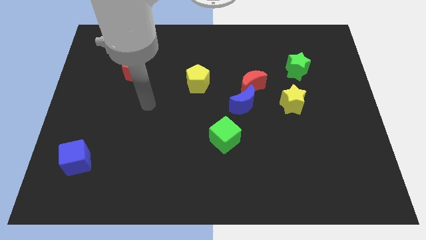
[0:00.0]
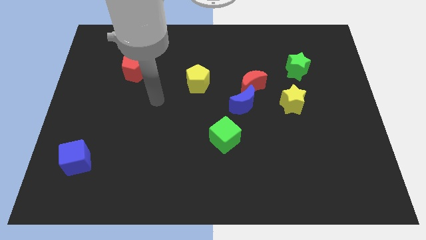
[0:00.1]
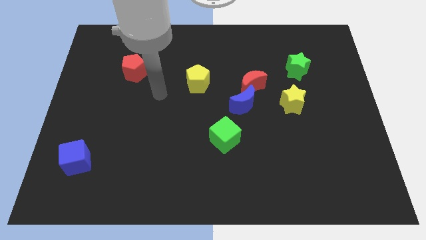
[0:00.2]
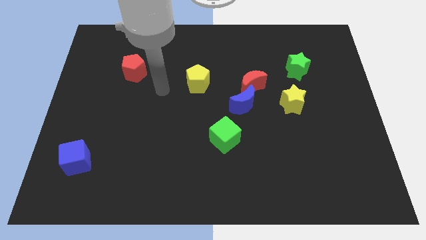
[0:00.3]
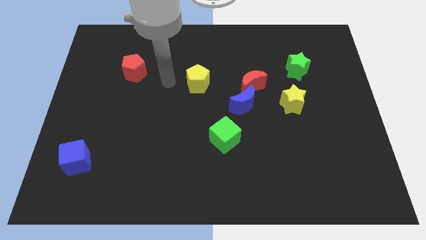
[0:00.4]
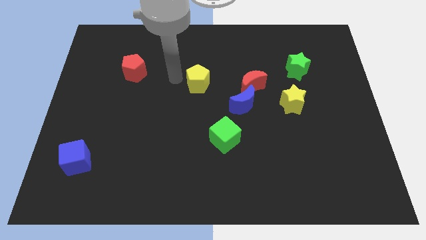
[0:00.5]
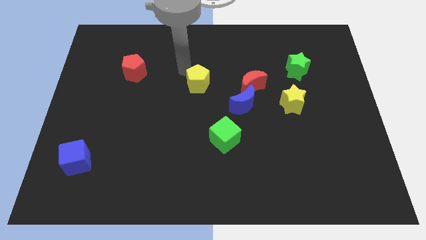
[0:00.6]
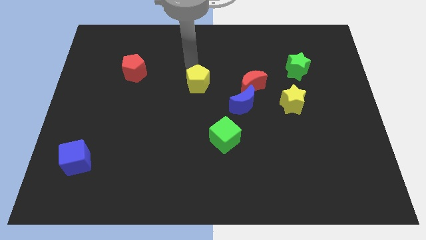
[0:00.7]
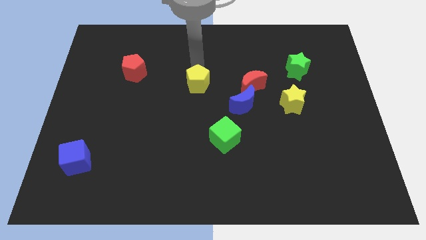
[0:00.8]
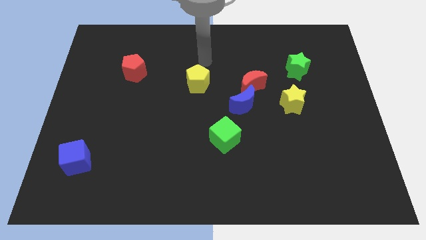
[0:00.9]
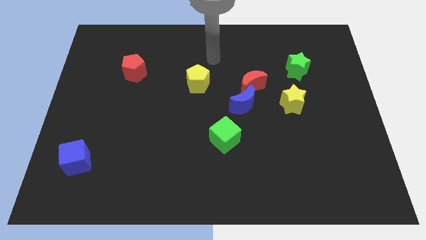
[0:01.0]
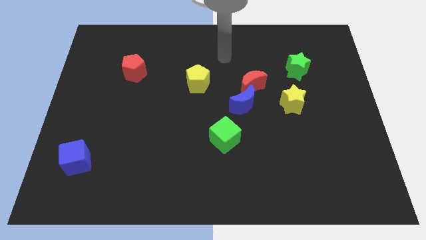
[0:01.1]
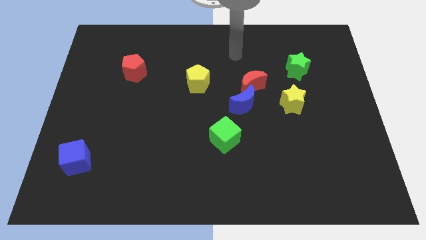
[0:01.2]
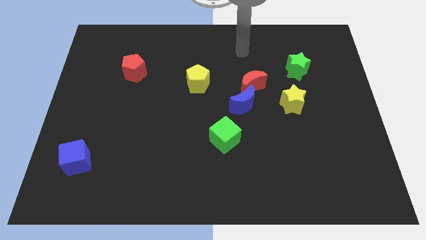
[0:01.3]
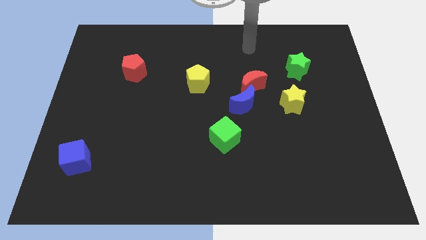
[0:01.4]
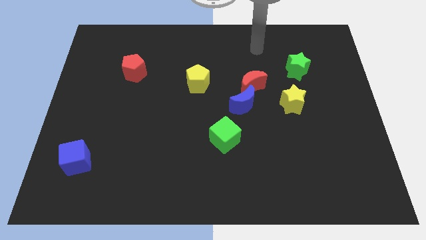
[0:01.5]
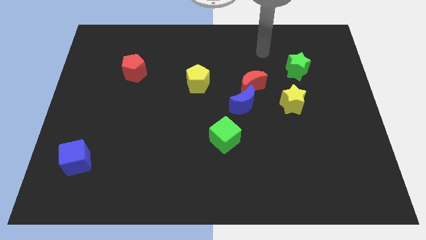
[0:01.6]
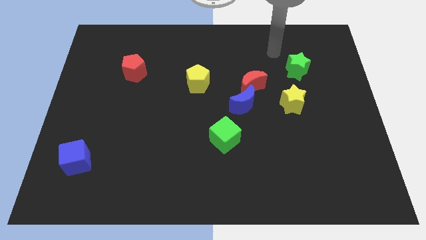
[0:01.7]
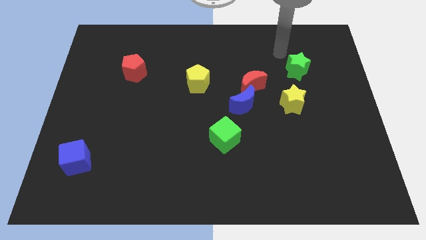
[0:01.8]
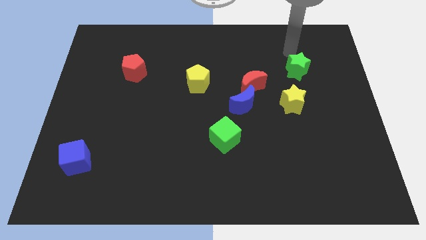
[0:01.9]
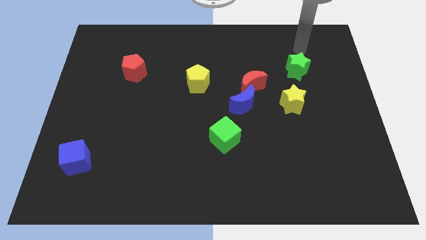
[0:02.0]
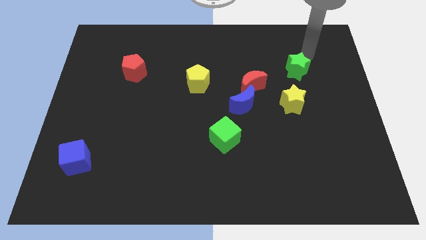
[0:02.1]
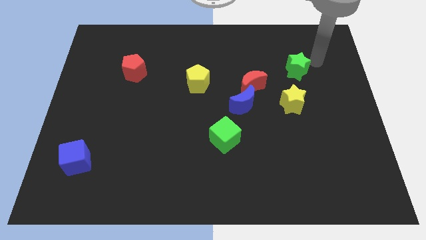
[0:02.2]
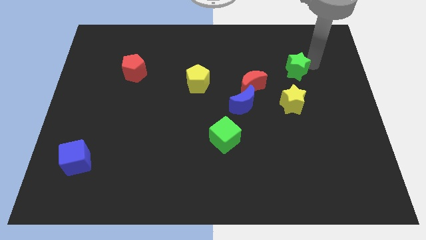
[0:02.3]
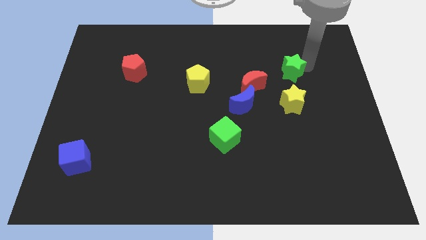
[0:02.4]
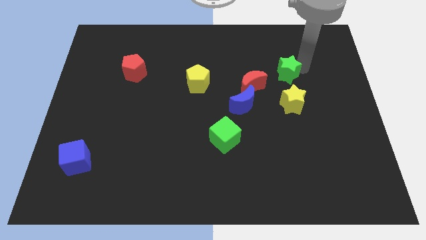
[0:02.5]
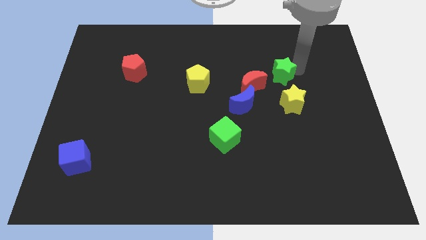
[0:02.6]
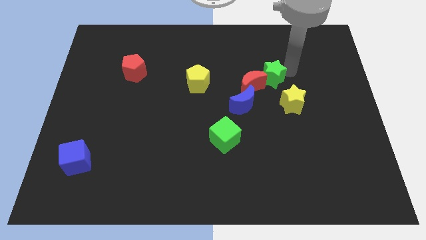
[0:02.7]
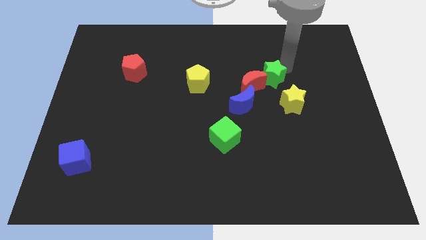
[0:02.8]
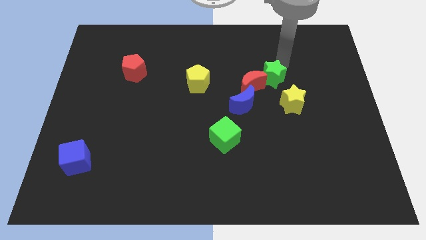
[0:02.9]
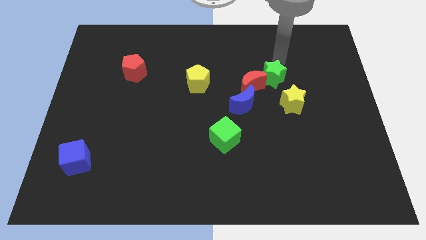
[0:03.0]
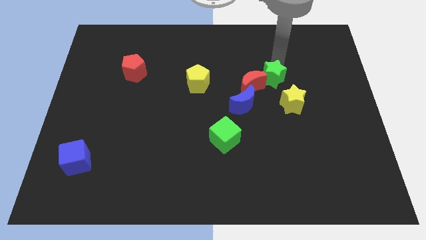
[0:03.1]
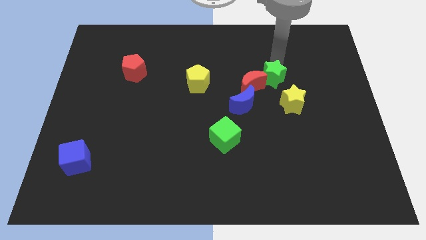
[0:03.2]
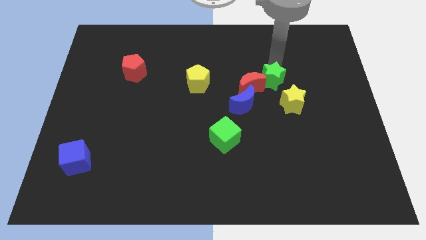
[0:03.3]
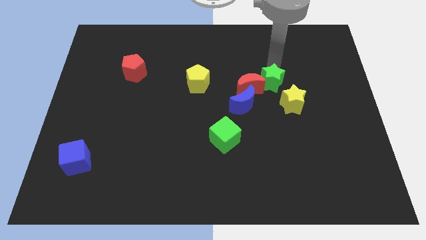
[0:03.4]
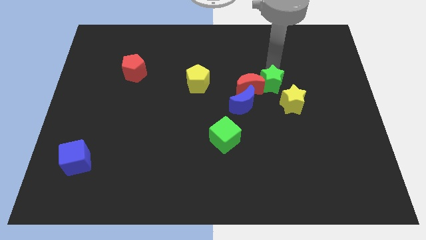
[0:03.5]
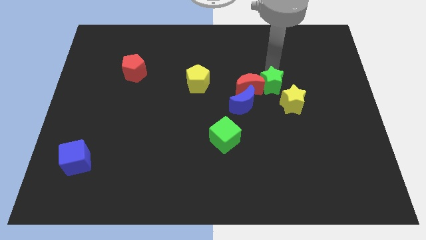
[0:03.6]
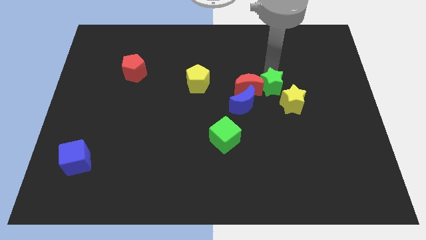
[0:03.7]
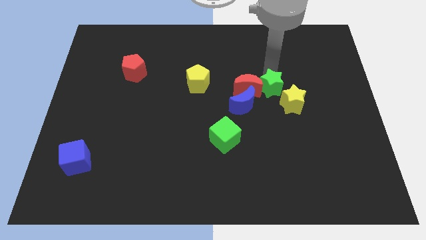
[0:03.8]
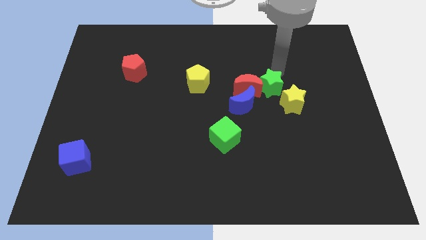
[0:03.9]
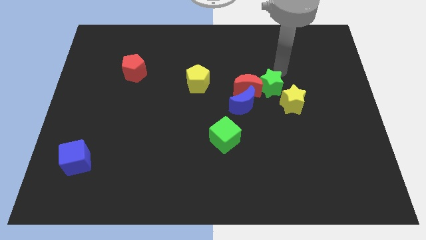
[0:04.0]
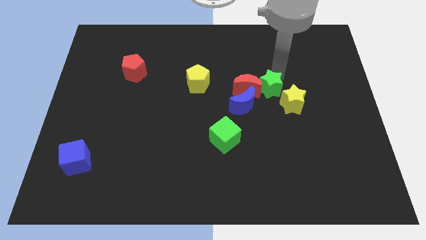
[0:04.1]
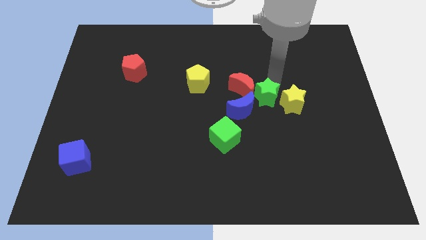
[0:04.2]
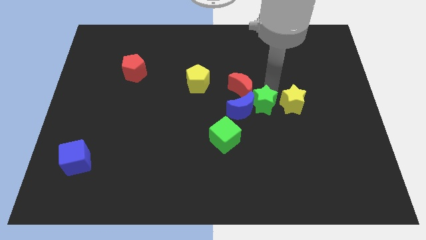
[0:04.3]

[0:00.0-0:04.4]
put the green star below the red moon

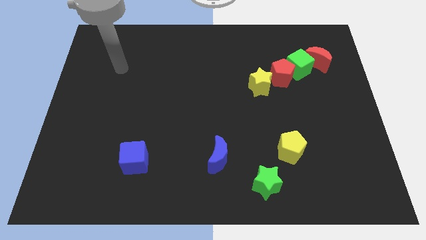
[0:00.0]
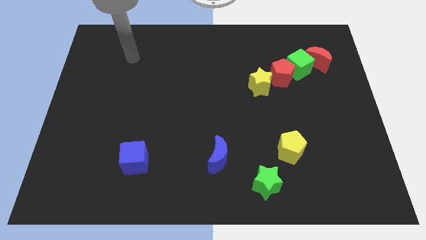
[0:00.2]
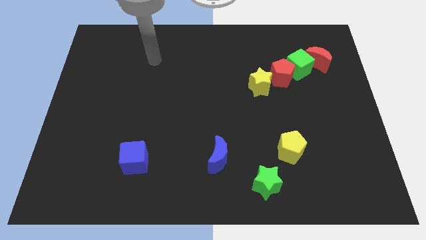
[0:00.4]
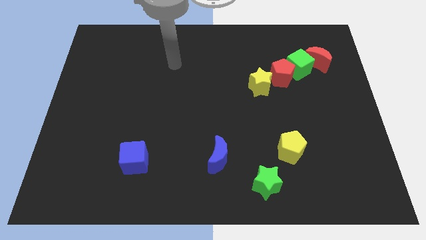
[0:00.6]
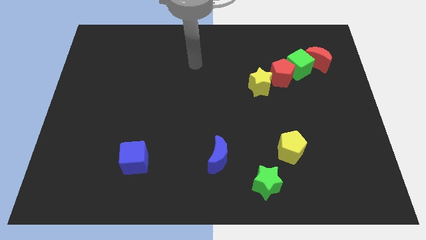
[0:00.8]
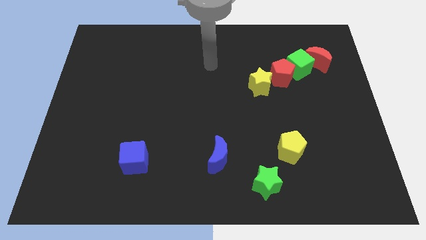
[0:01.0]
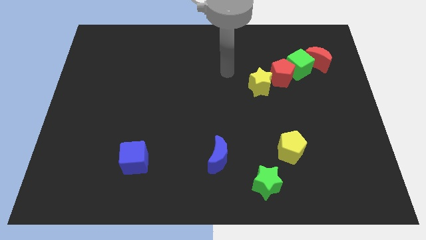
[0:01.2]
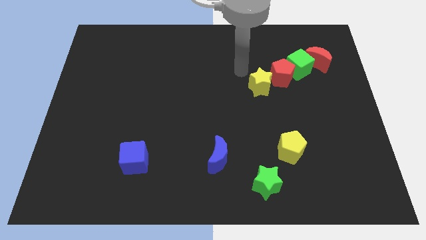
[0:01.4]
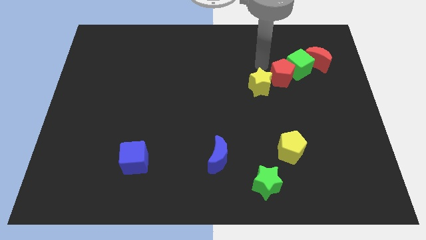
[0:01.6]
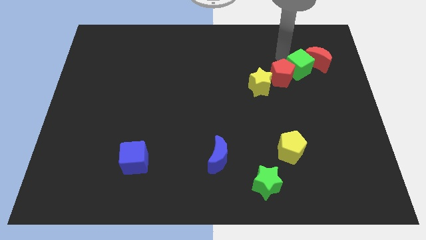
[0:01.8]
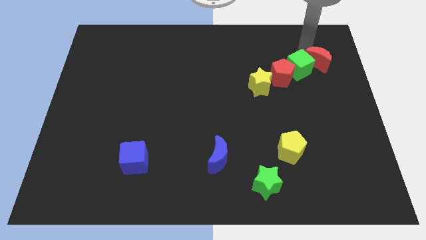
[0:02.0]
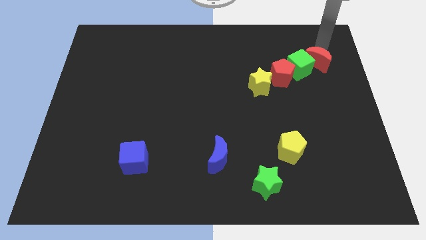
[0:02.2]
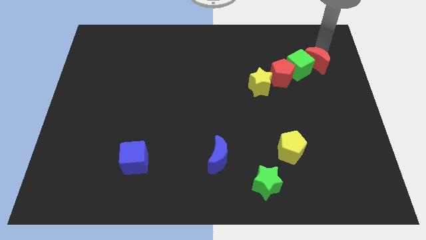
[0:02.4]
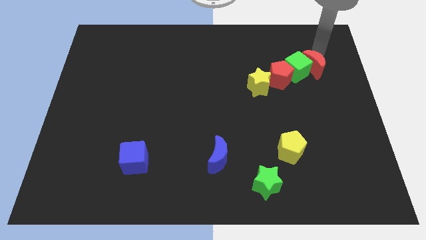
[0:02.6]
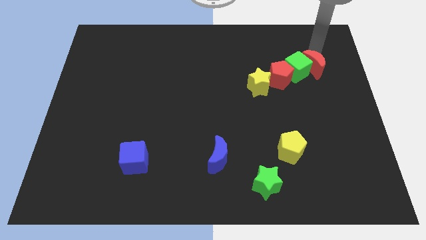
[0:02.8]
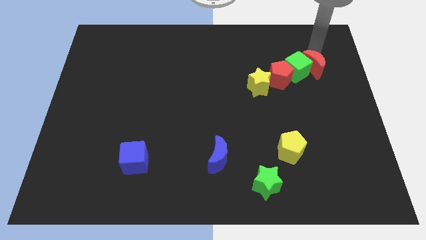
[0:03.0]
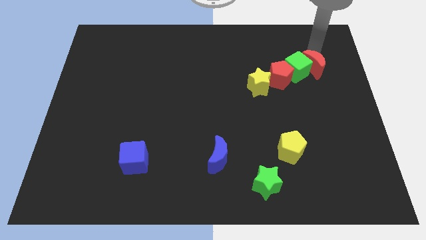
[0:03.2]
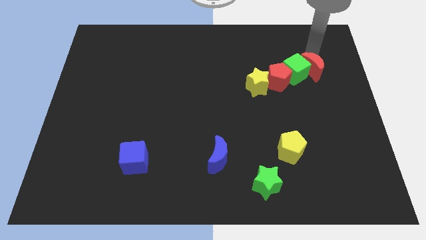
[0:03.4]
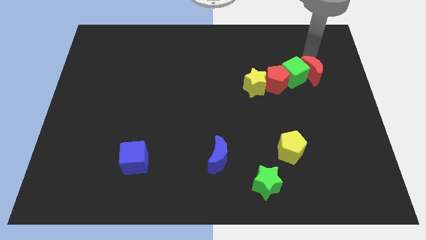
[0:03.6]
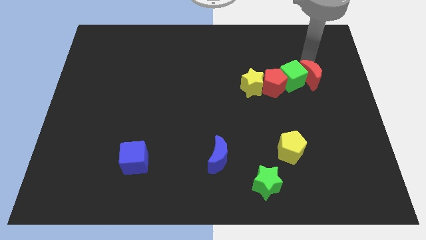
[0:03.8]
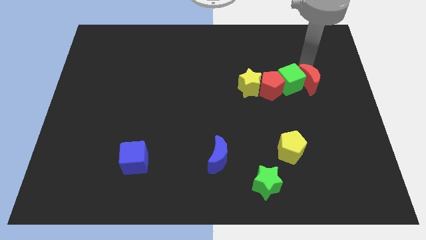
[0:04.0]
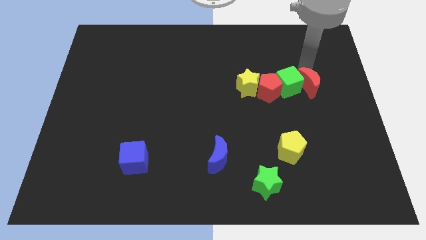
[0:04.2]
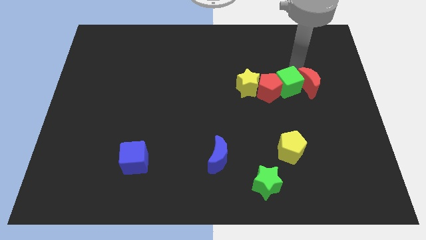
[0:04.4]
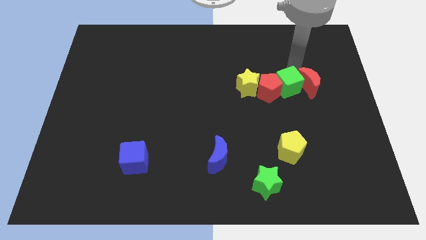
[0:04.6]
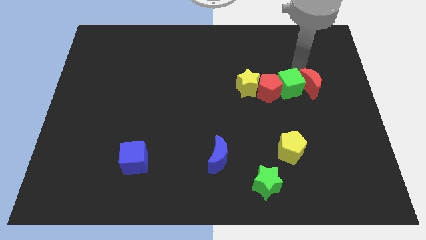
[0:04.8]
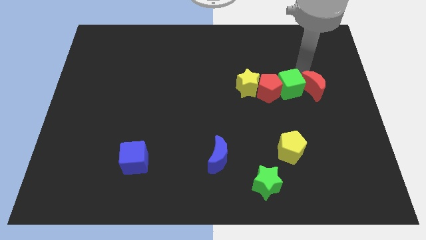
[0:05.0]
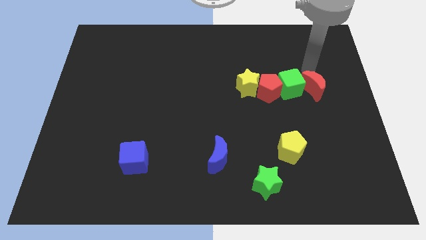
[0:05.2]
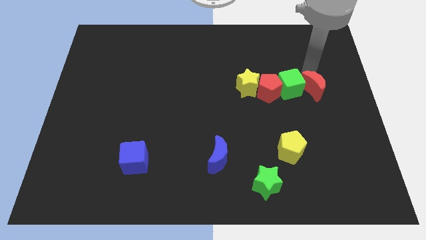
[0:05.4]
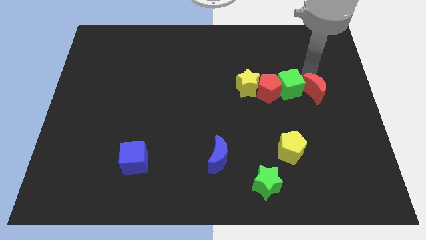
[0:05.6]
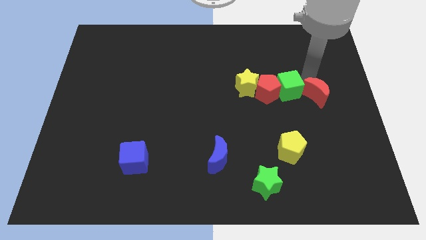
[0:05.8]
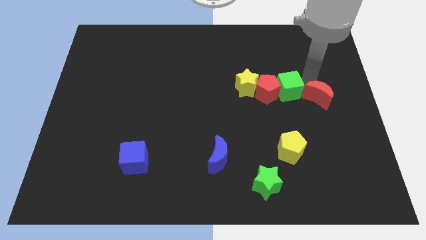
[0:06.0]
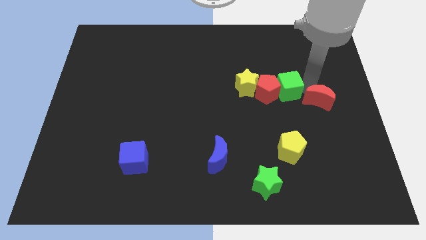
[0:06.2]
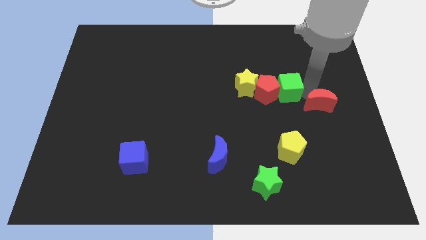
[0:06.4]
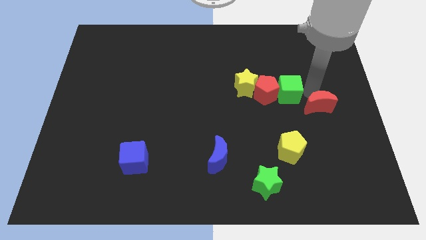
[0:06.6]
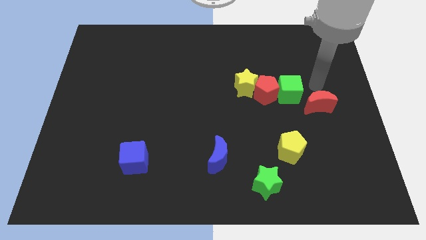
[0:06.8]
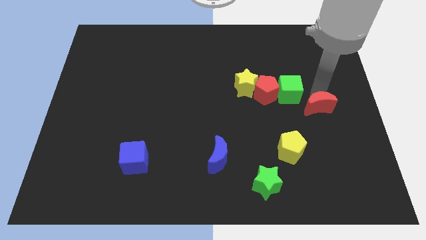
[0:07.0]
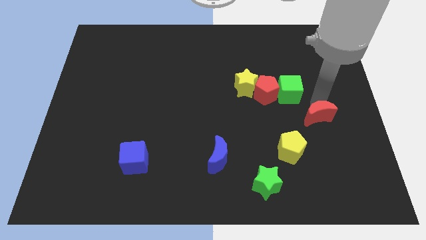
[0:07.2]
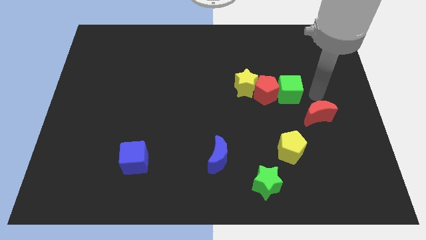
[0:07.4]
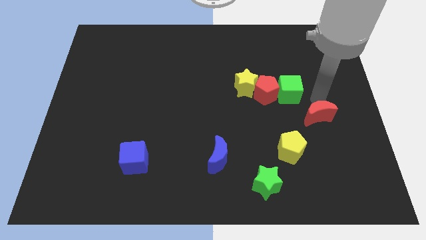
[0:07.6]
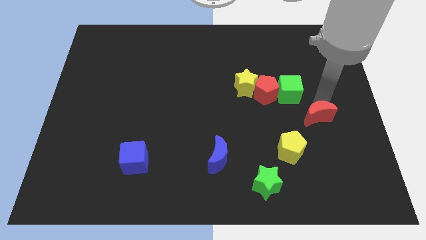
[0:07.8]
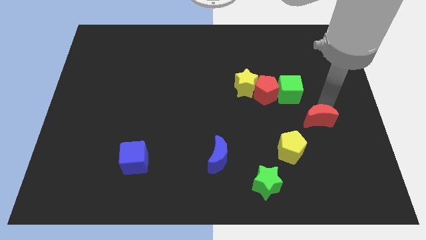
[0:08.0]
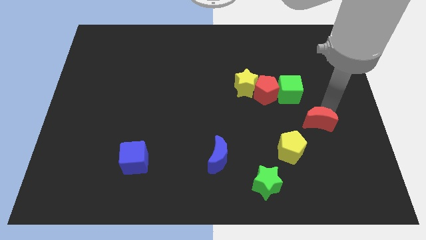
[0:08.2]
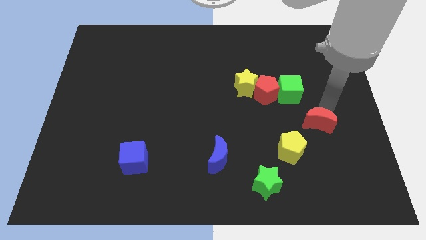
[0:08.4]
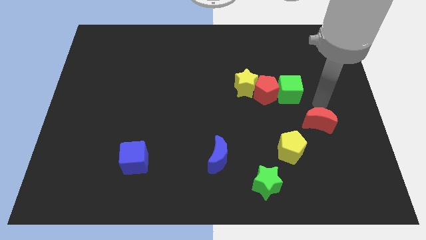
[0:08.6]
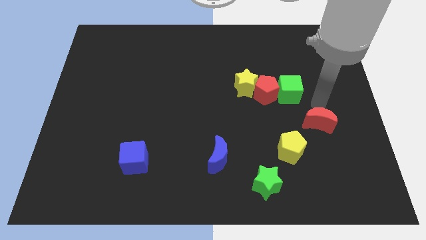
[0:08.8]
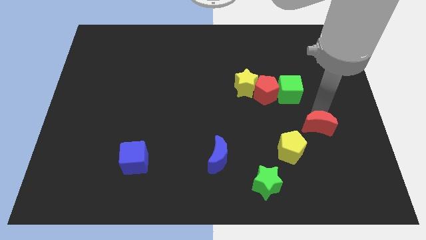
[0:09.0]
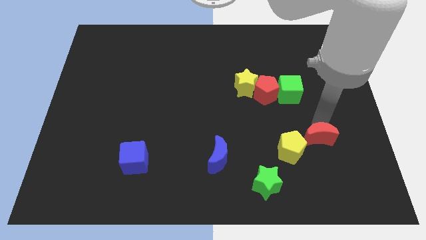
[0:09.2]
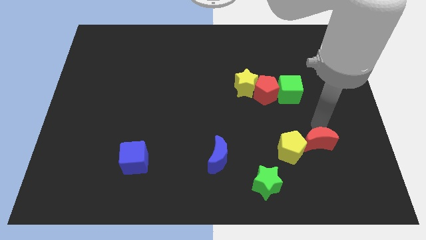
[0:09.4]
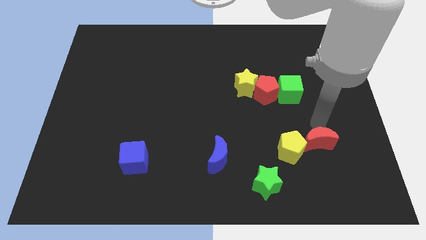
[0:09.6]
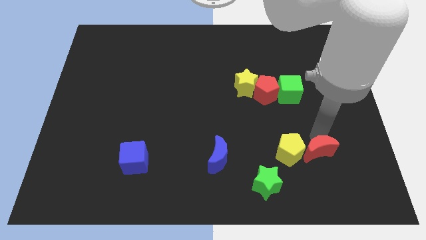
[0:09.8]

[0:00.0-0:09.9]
push the red moon to the bottom right of the yellow pentagon
